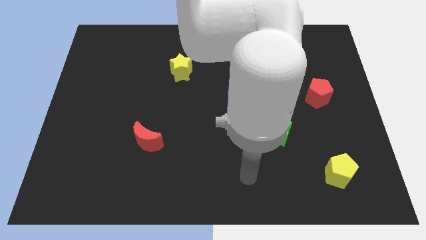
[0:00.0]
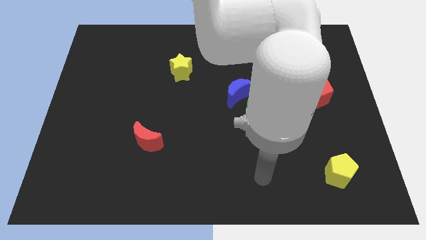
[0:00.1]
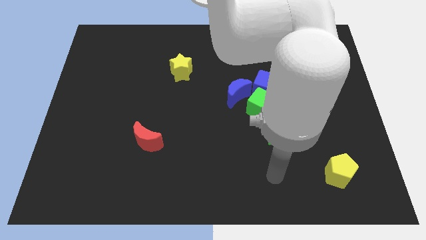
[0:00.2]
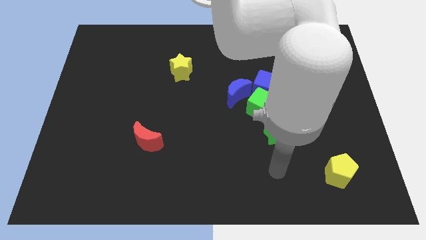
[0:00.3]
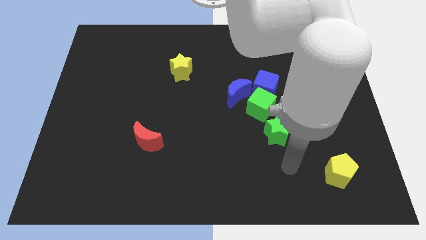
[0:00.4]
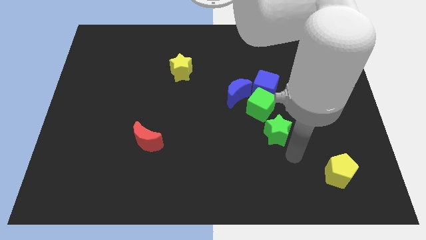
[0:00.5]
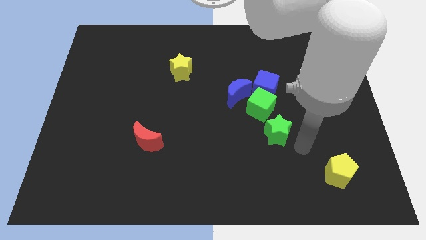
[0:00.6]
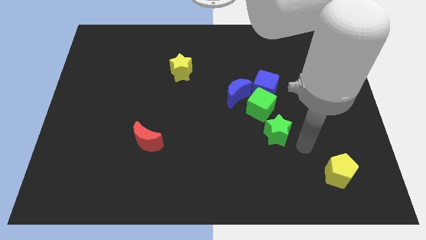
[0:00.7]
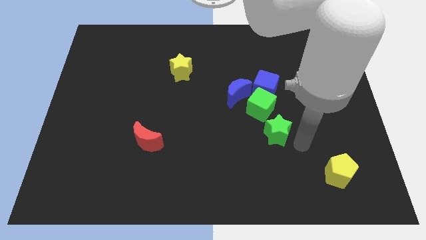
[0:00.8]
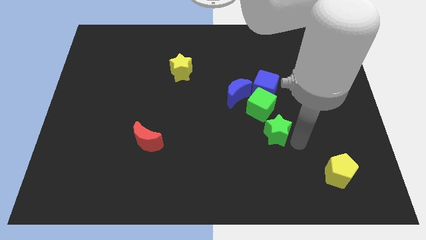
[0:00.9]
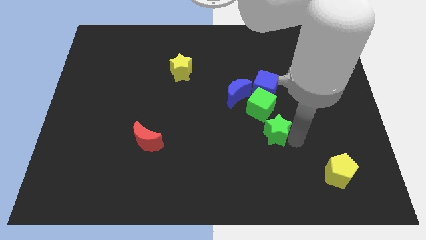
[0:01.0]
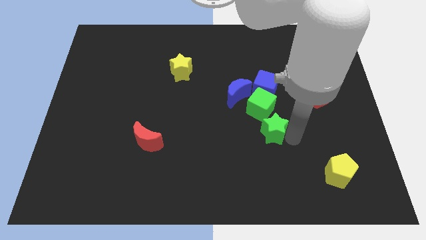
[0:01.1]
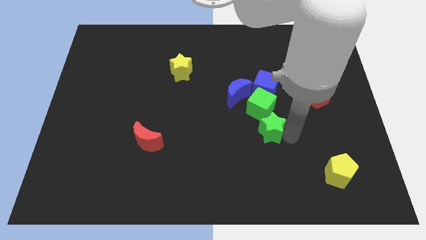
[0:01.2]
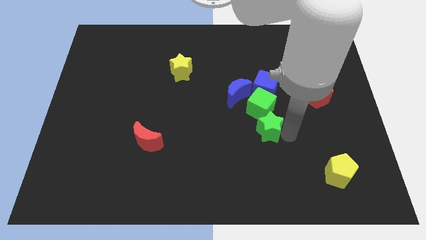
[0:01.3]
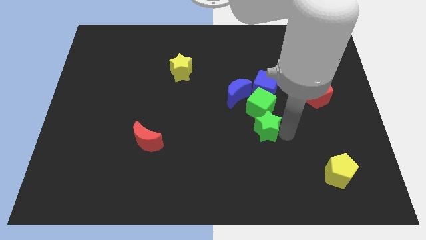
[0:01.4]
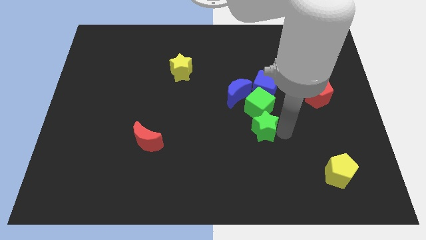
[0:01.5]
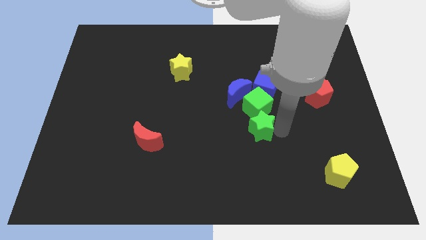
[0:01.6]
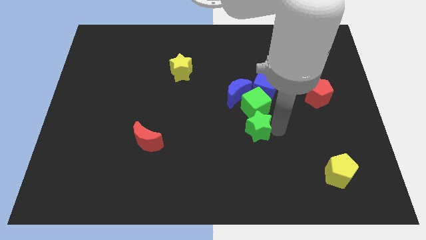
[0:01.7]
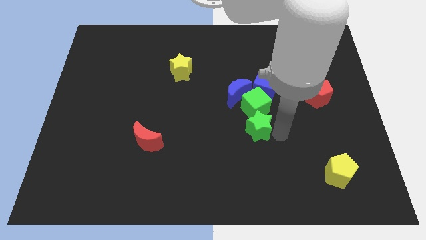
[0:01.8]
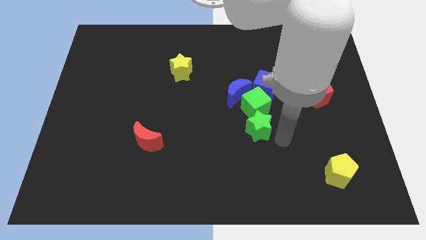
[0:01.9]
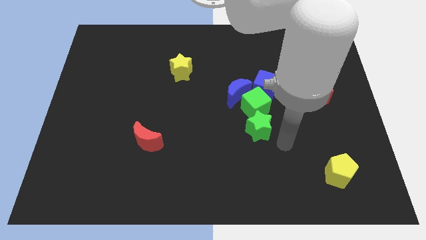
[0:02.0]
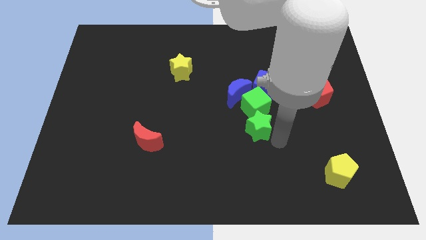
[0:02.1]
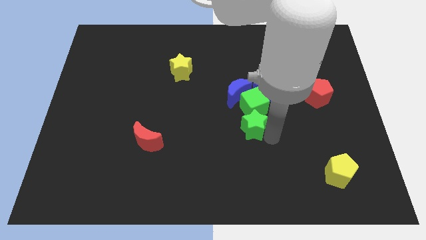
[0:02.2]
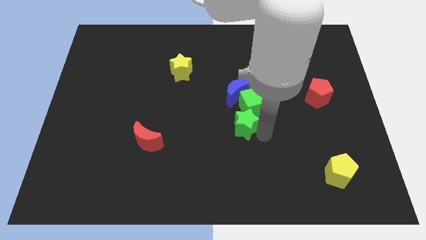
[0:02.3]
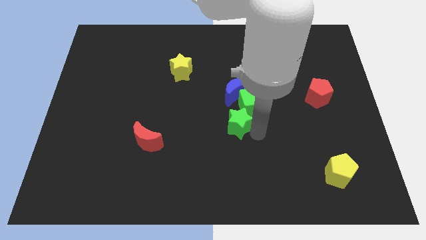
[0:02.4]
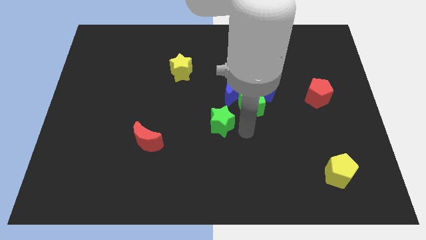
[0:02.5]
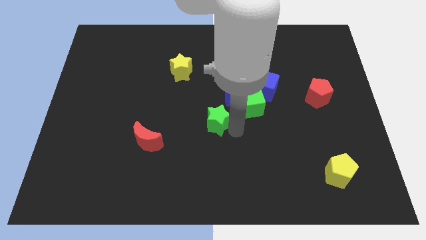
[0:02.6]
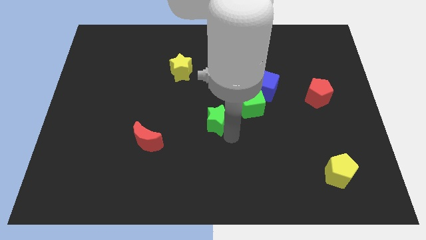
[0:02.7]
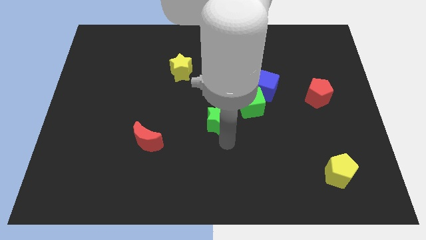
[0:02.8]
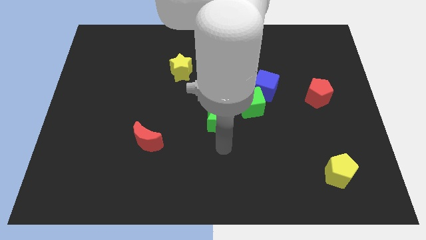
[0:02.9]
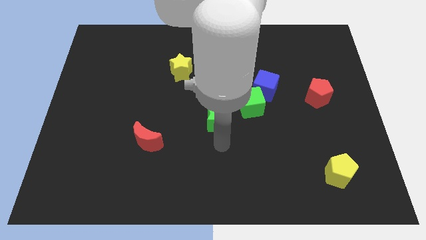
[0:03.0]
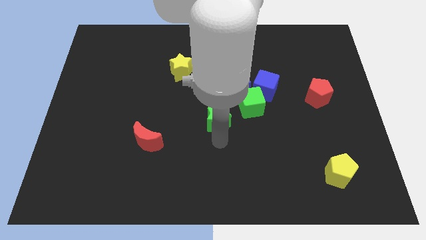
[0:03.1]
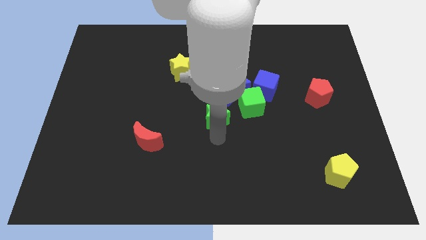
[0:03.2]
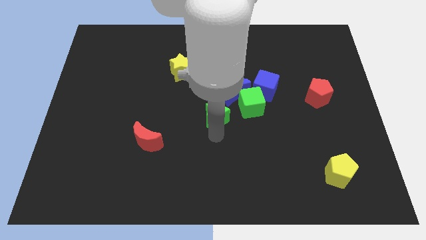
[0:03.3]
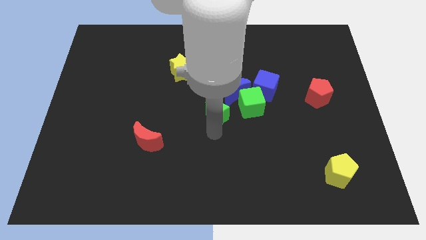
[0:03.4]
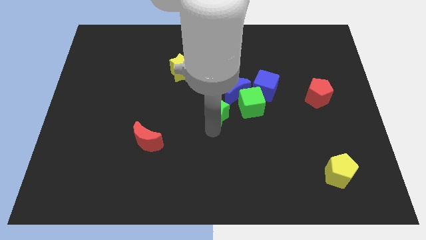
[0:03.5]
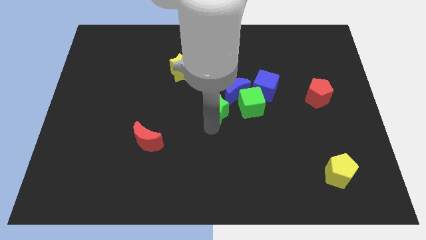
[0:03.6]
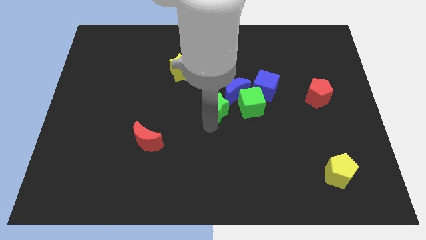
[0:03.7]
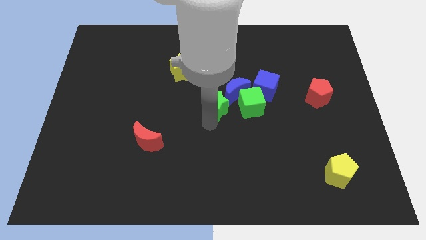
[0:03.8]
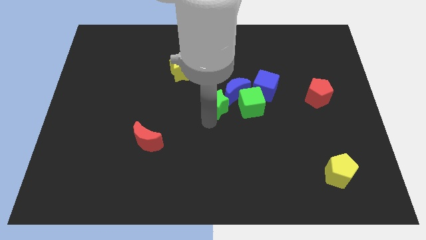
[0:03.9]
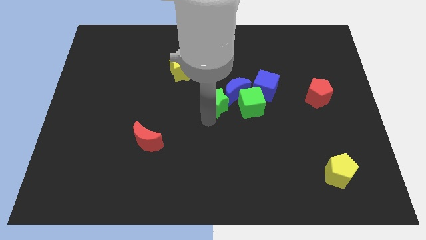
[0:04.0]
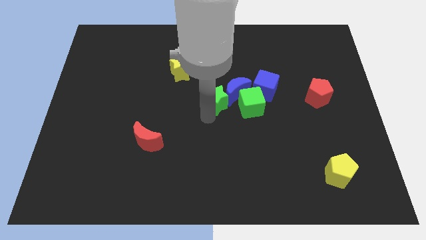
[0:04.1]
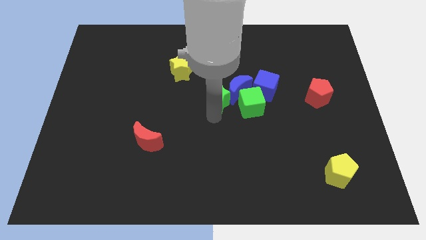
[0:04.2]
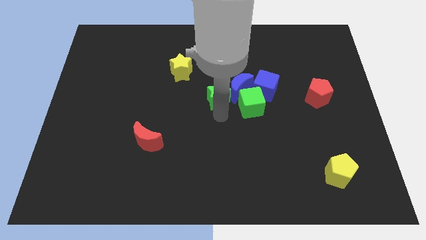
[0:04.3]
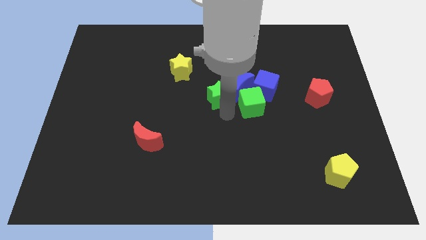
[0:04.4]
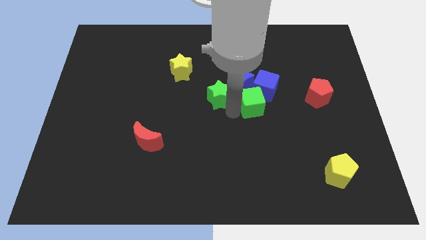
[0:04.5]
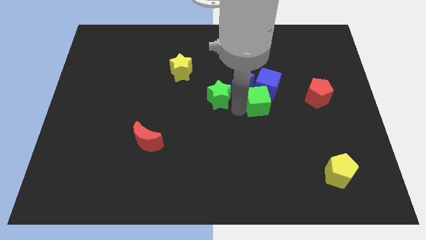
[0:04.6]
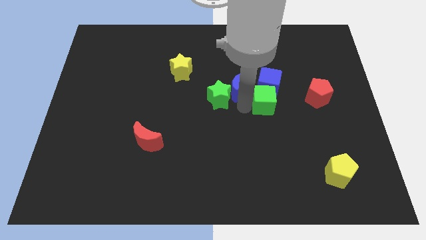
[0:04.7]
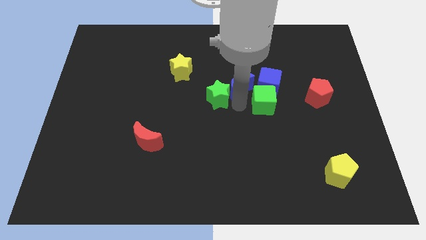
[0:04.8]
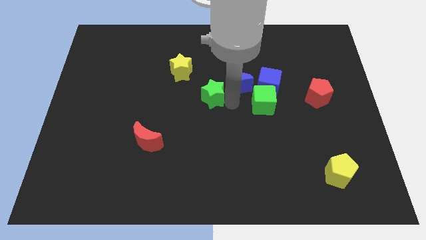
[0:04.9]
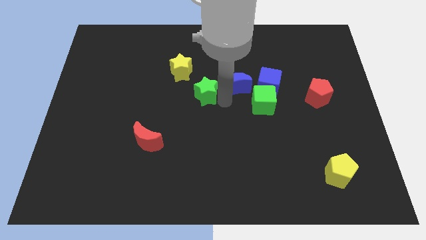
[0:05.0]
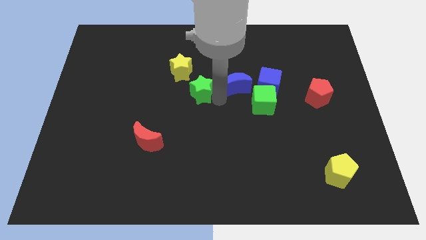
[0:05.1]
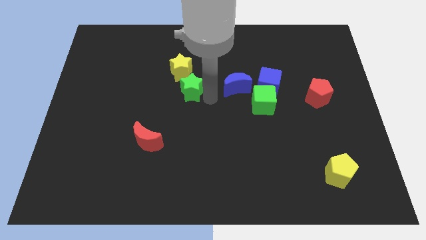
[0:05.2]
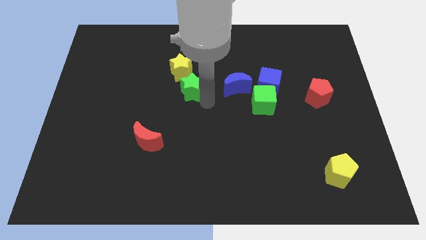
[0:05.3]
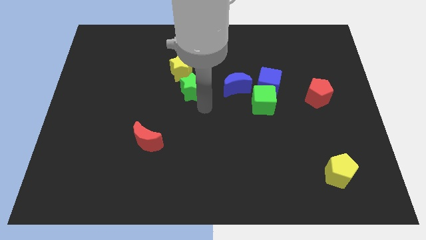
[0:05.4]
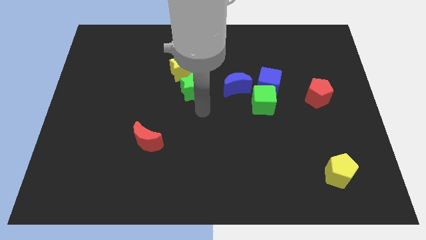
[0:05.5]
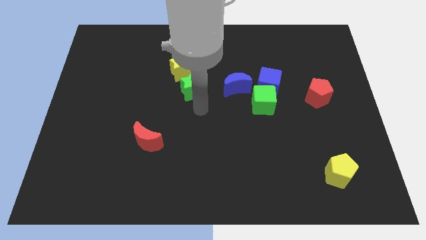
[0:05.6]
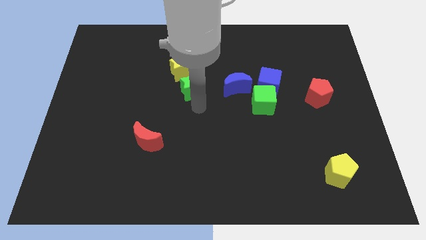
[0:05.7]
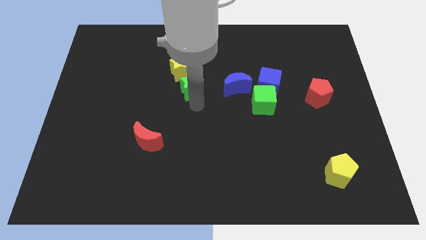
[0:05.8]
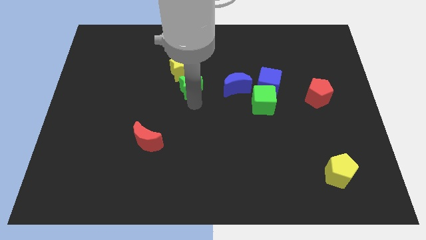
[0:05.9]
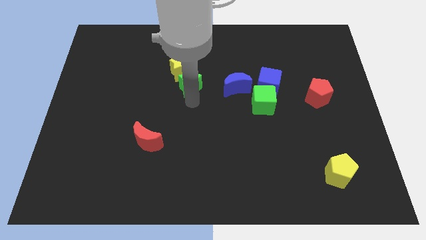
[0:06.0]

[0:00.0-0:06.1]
slide the green star towards the yellow star

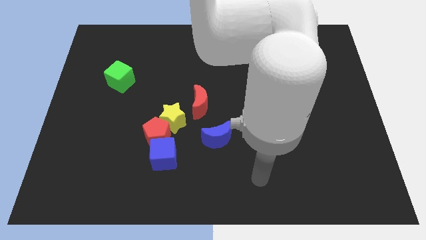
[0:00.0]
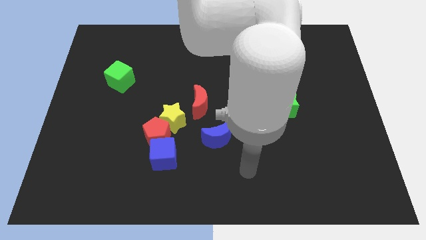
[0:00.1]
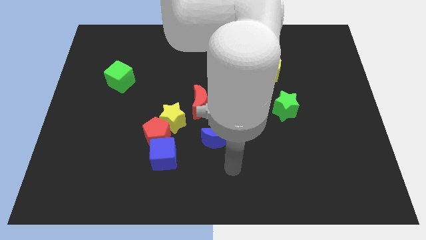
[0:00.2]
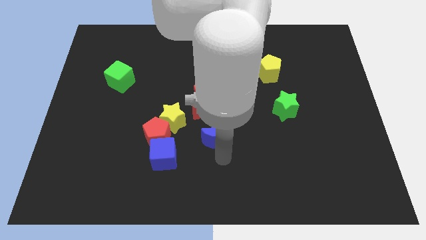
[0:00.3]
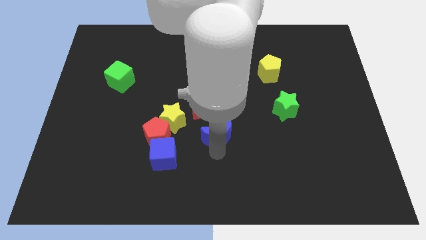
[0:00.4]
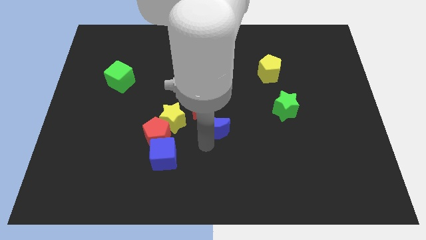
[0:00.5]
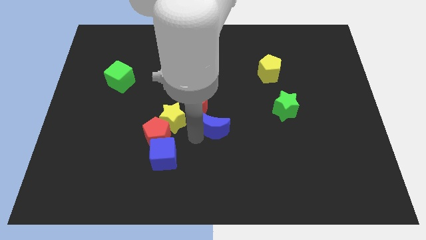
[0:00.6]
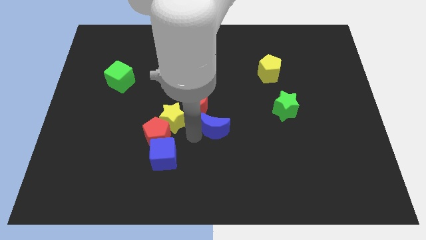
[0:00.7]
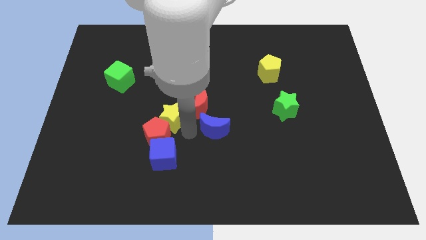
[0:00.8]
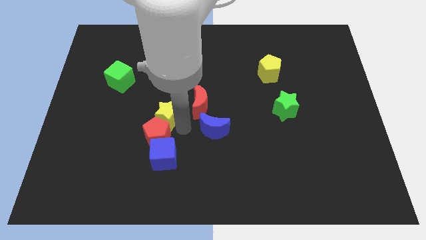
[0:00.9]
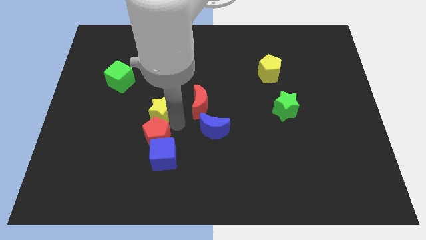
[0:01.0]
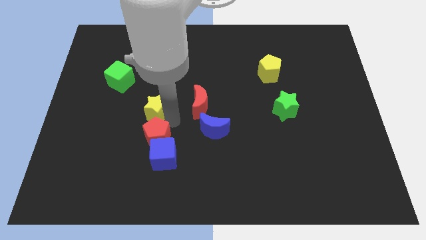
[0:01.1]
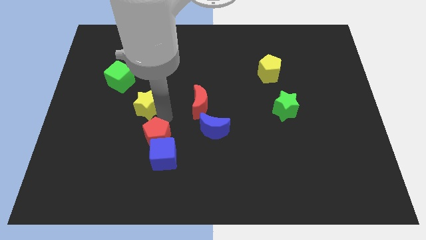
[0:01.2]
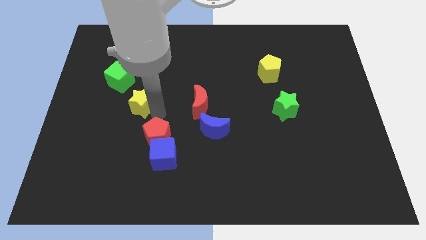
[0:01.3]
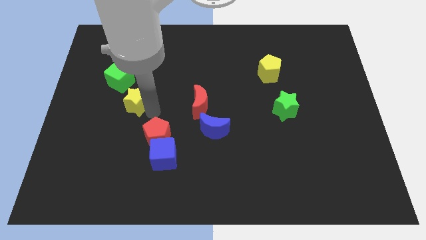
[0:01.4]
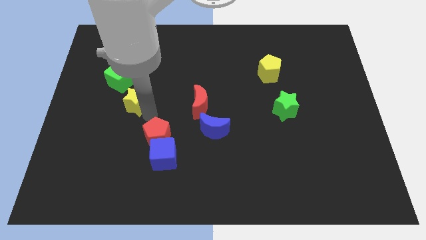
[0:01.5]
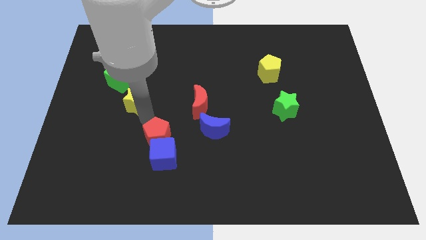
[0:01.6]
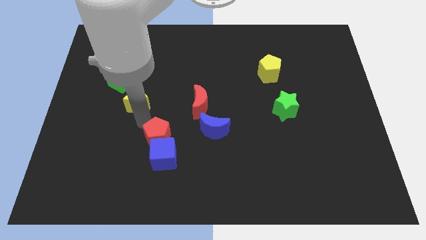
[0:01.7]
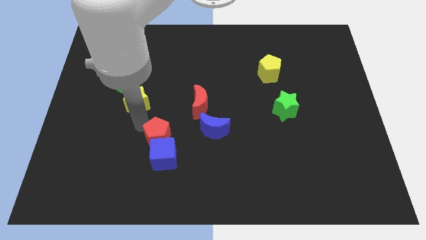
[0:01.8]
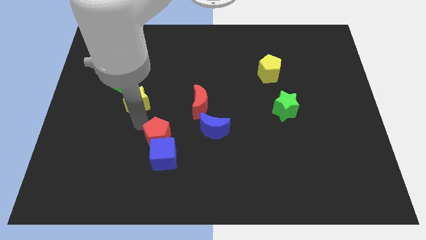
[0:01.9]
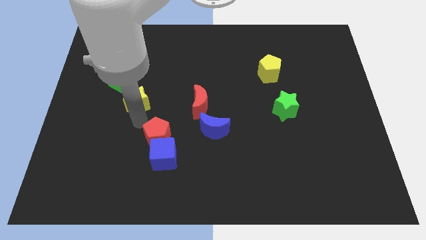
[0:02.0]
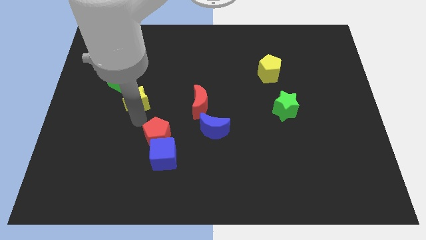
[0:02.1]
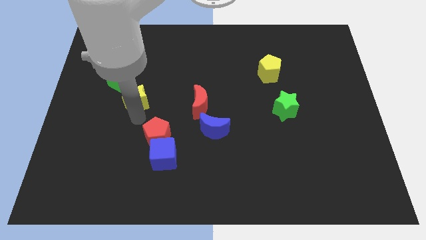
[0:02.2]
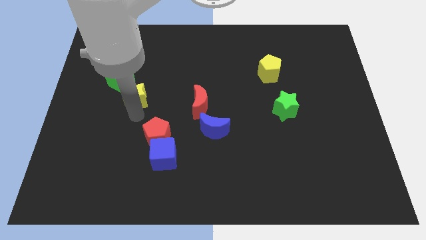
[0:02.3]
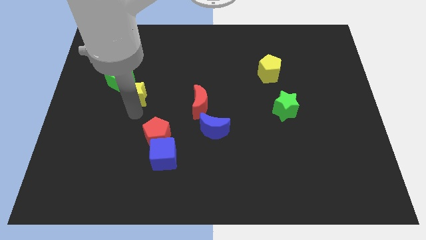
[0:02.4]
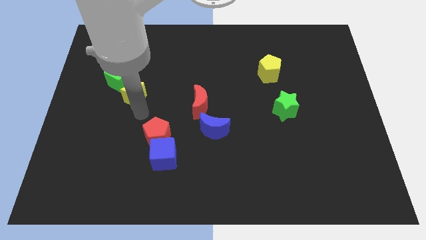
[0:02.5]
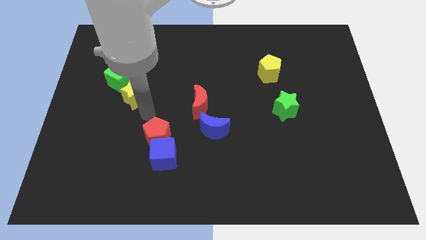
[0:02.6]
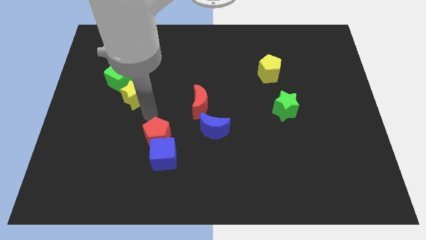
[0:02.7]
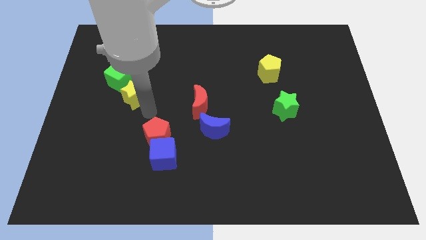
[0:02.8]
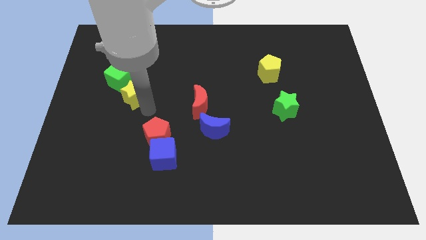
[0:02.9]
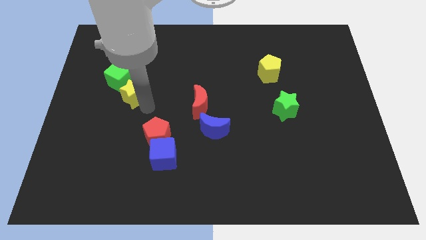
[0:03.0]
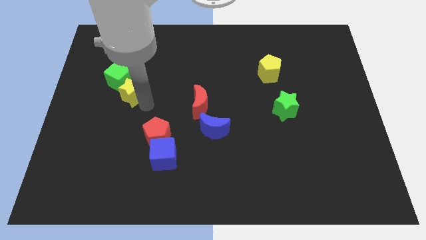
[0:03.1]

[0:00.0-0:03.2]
put the yellow star towards the green cube
